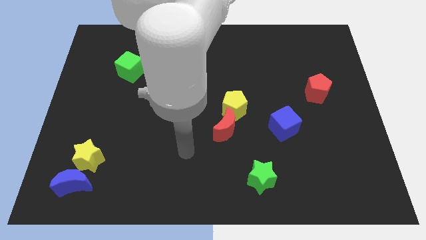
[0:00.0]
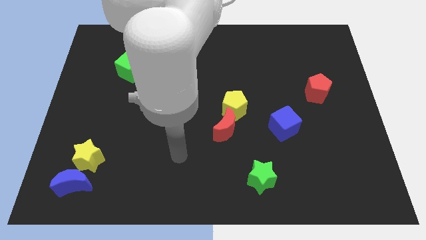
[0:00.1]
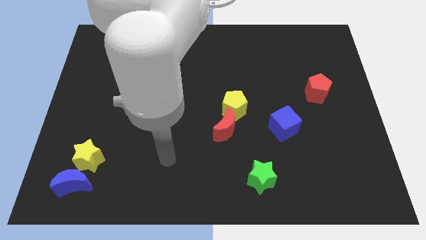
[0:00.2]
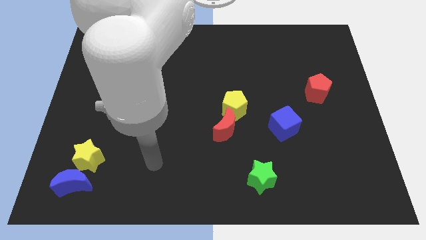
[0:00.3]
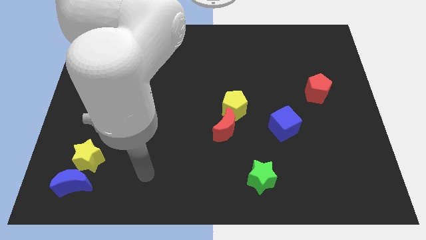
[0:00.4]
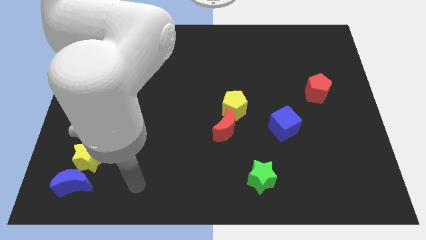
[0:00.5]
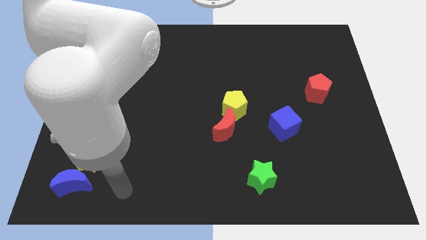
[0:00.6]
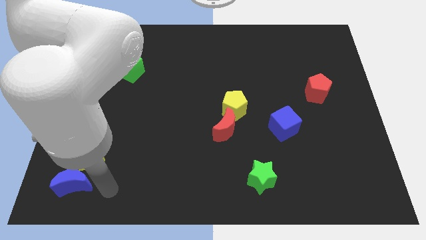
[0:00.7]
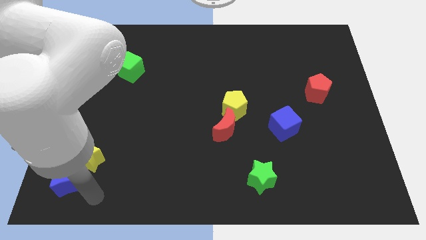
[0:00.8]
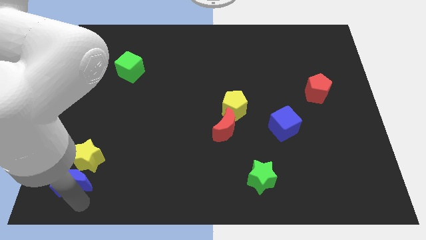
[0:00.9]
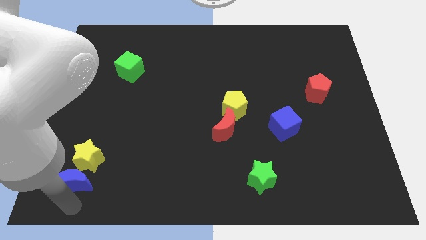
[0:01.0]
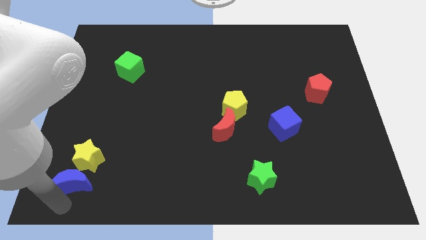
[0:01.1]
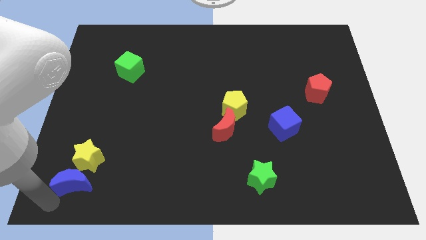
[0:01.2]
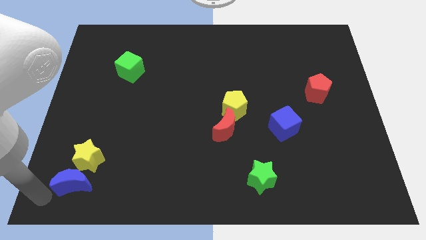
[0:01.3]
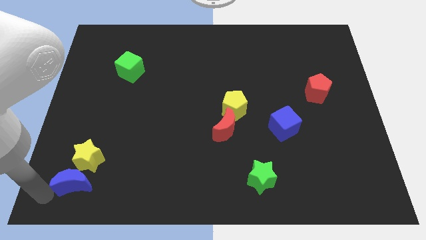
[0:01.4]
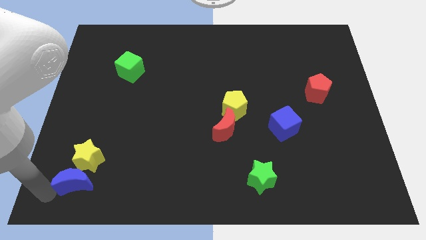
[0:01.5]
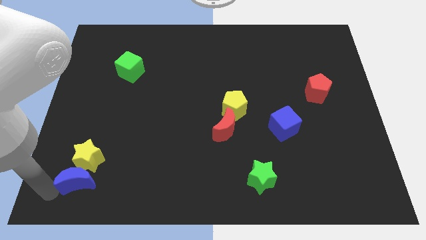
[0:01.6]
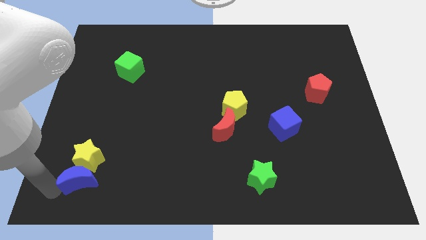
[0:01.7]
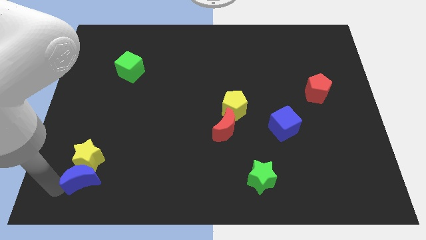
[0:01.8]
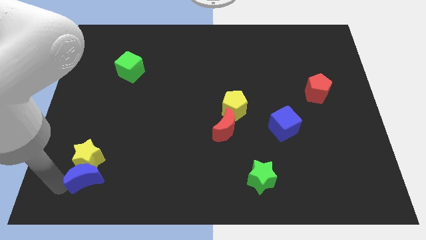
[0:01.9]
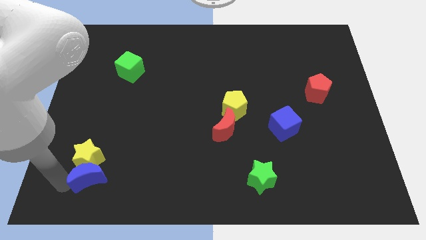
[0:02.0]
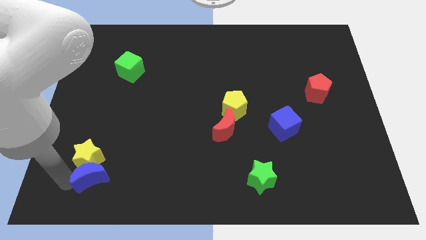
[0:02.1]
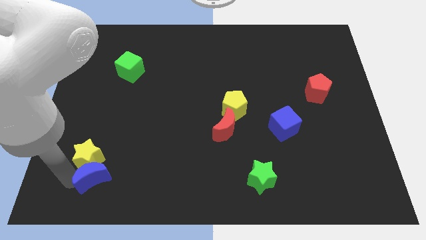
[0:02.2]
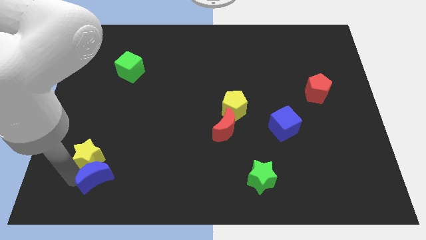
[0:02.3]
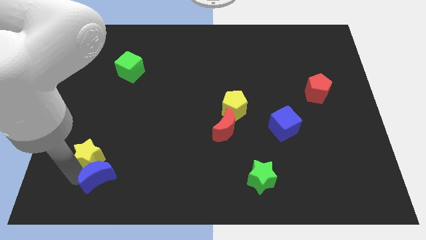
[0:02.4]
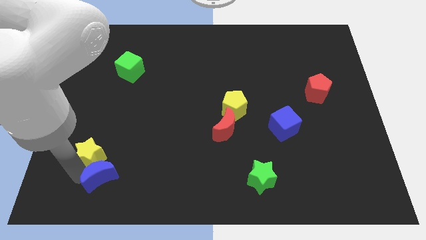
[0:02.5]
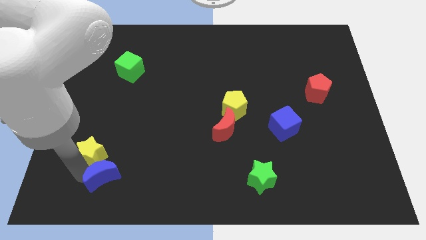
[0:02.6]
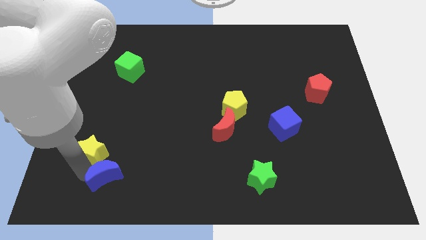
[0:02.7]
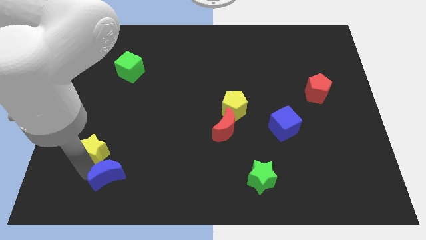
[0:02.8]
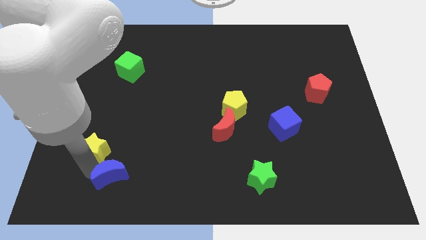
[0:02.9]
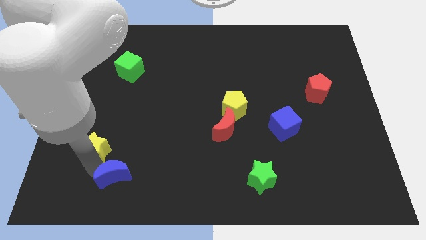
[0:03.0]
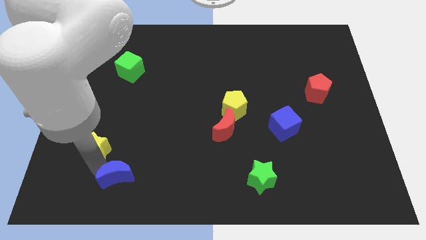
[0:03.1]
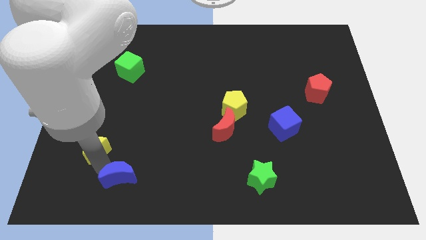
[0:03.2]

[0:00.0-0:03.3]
push the blue moon slightly upwards and then right

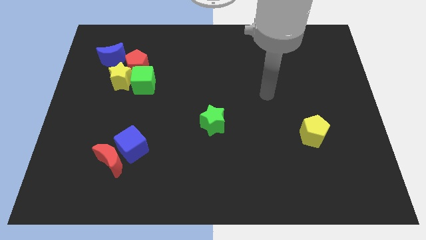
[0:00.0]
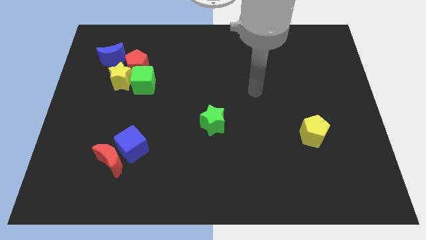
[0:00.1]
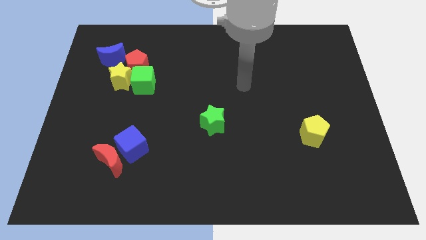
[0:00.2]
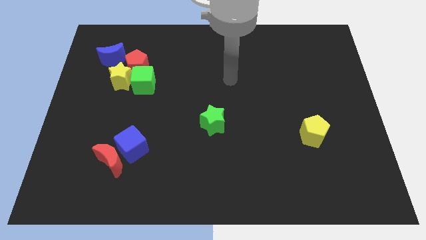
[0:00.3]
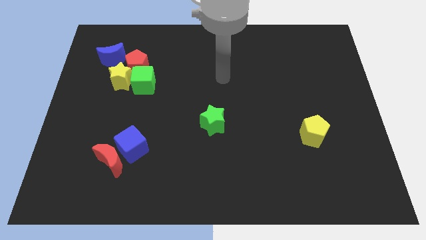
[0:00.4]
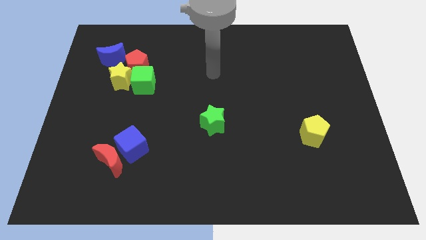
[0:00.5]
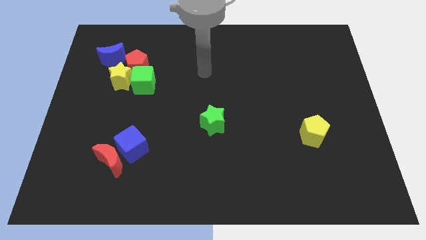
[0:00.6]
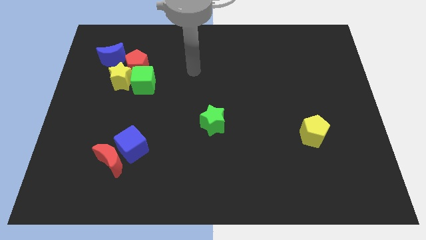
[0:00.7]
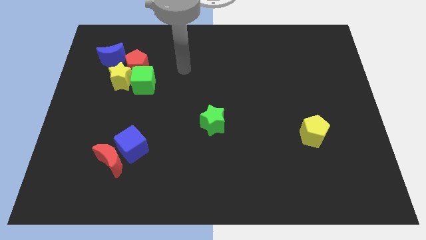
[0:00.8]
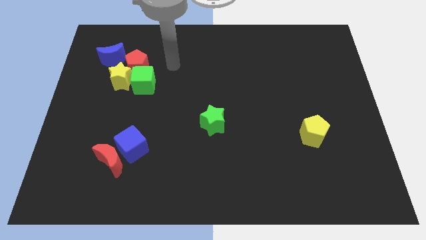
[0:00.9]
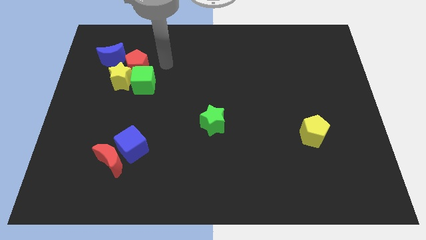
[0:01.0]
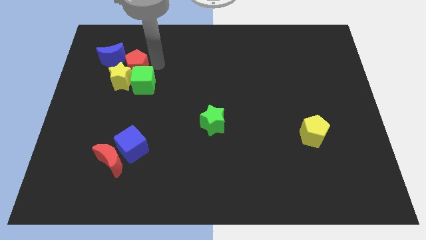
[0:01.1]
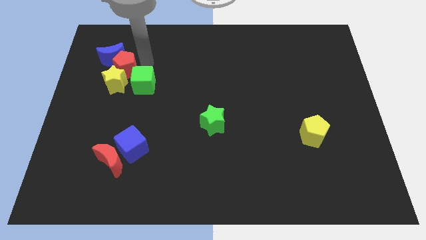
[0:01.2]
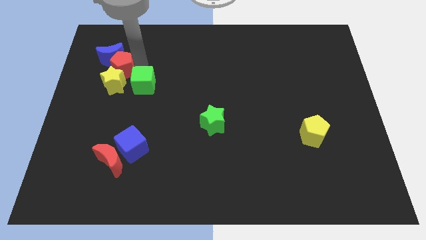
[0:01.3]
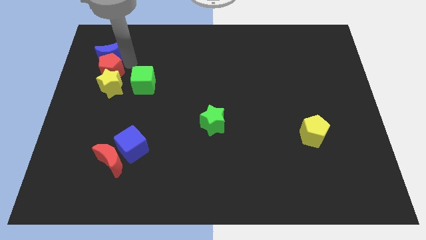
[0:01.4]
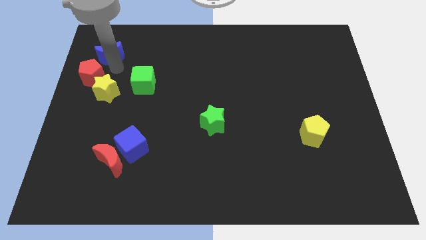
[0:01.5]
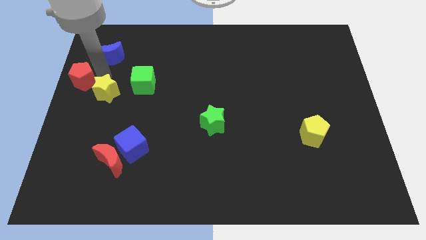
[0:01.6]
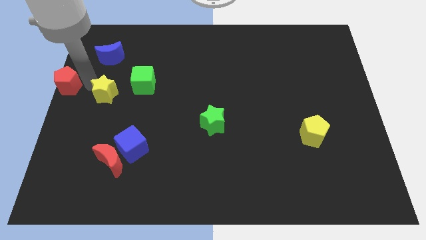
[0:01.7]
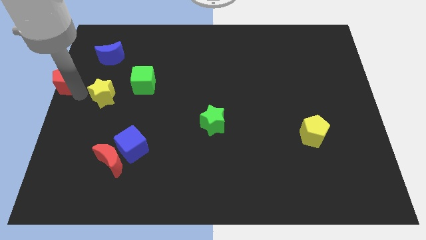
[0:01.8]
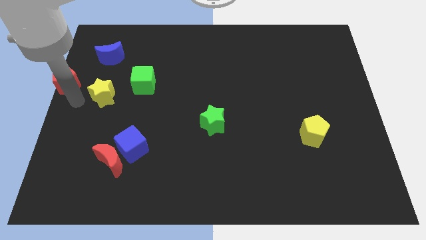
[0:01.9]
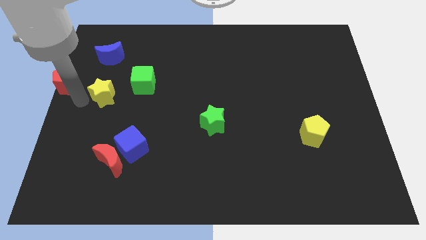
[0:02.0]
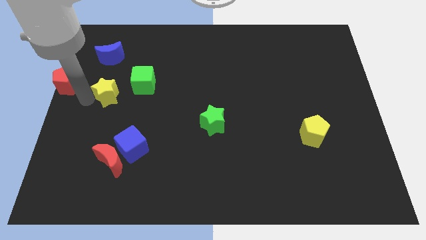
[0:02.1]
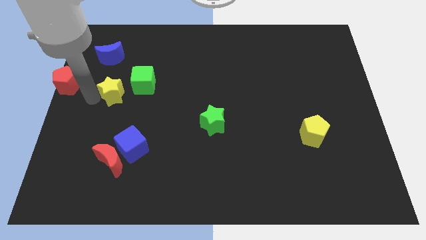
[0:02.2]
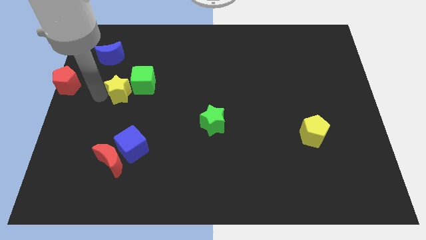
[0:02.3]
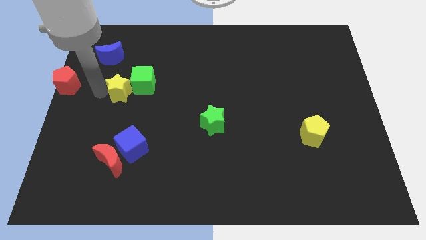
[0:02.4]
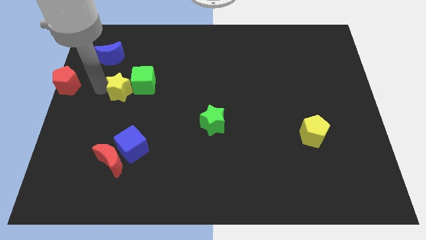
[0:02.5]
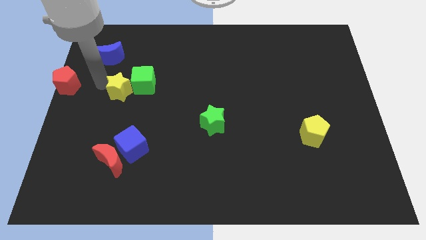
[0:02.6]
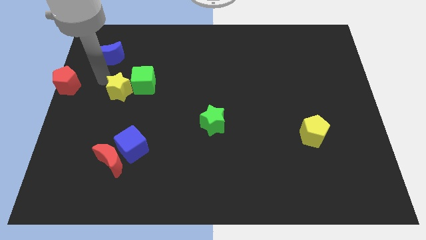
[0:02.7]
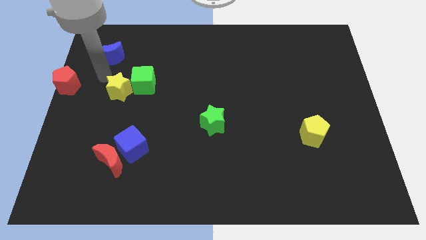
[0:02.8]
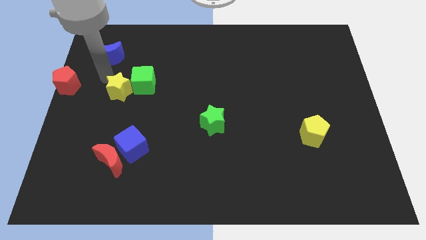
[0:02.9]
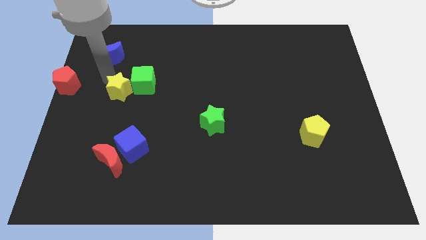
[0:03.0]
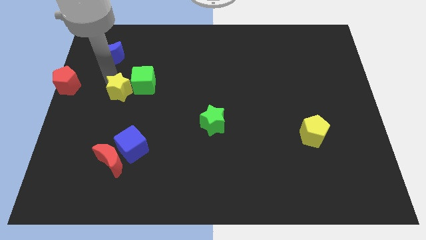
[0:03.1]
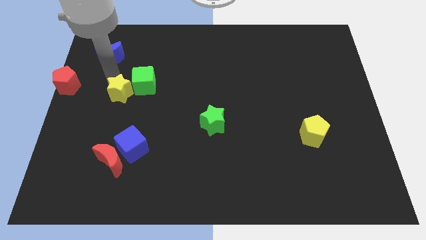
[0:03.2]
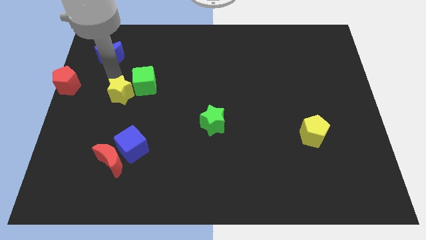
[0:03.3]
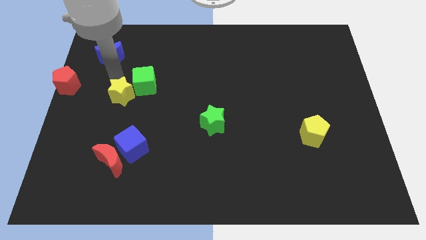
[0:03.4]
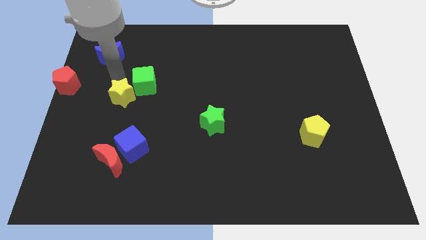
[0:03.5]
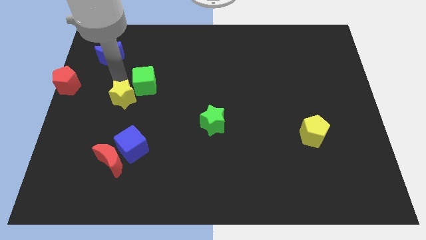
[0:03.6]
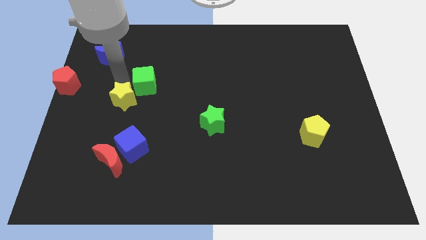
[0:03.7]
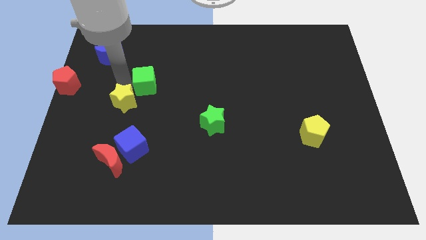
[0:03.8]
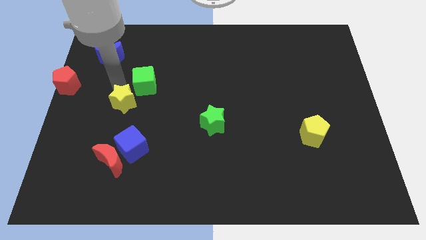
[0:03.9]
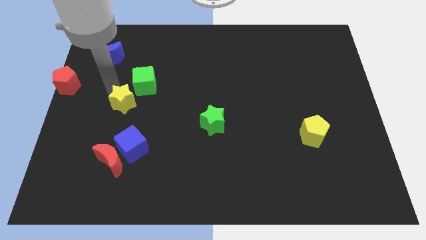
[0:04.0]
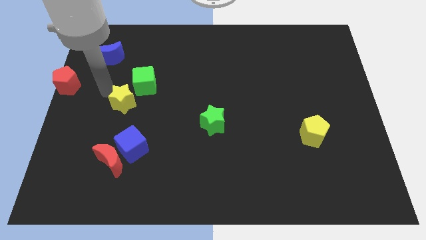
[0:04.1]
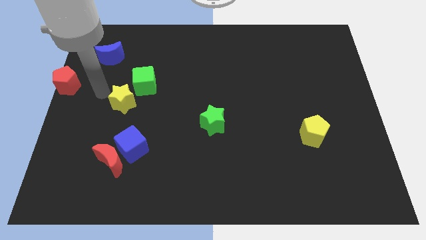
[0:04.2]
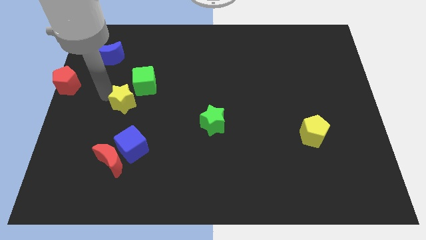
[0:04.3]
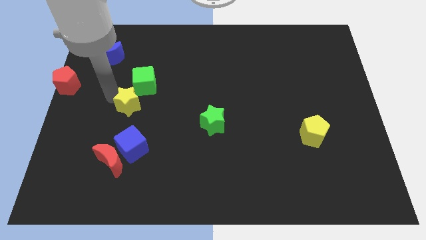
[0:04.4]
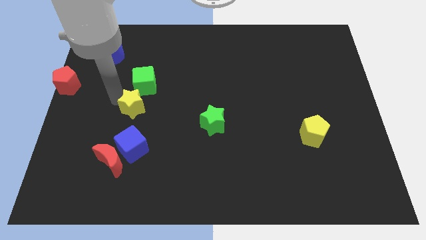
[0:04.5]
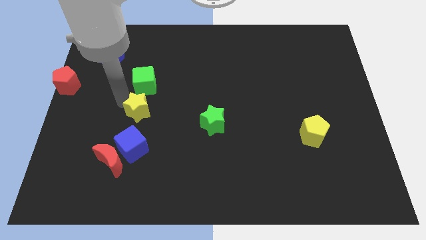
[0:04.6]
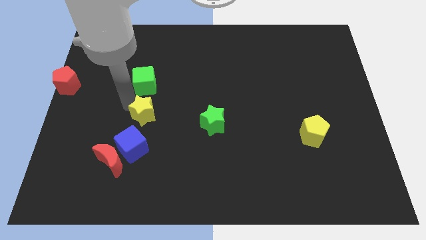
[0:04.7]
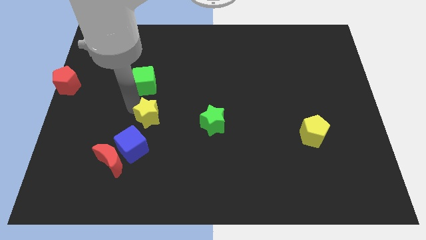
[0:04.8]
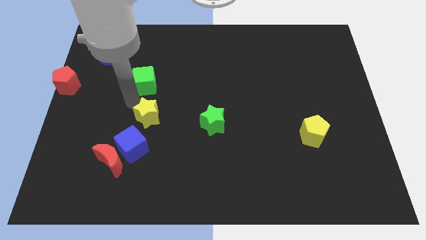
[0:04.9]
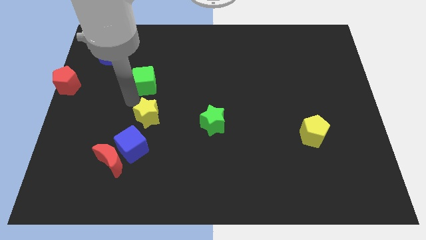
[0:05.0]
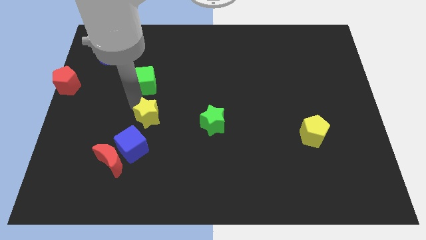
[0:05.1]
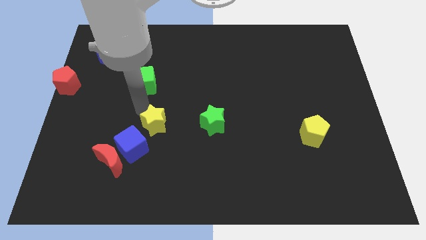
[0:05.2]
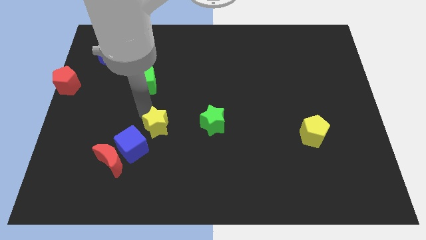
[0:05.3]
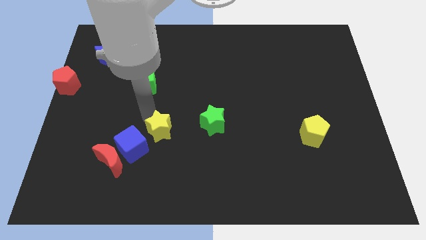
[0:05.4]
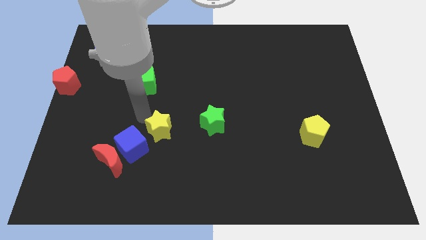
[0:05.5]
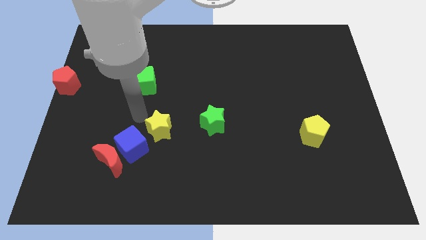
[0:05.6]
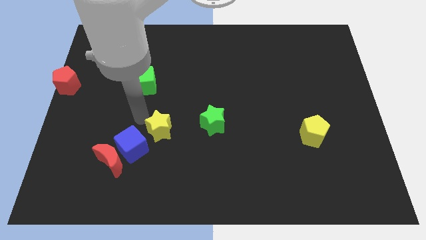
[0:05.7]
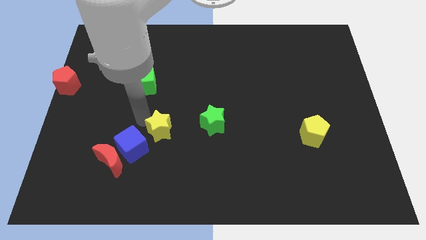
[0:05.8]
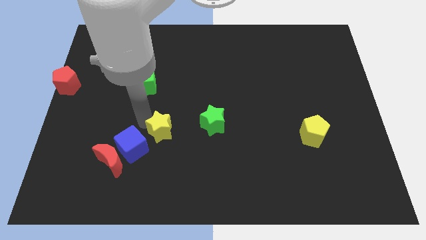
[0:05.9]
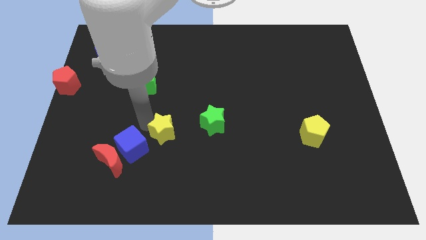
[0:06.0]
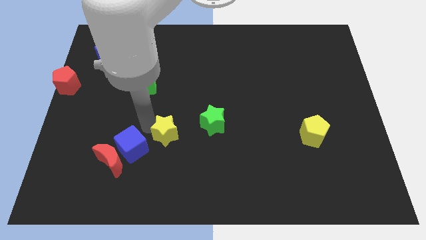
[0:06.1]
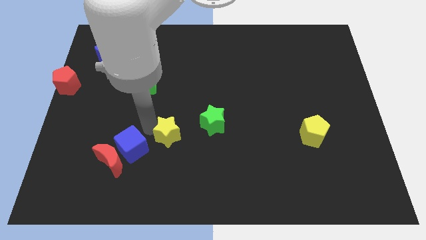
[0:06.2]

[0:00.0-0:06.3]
slide the yellow star downwards and to the right
